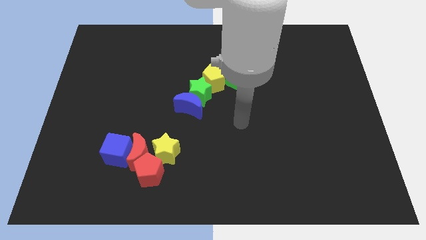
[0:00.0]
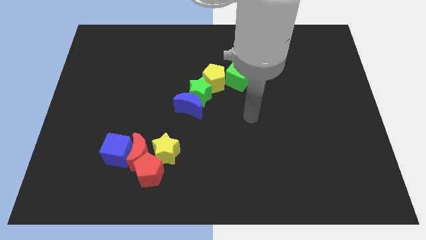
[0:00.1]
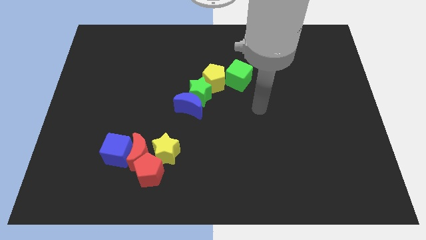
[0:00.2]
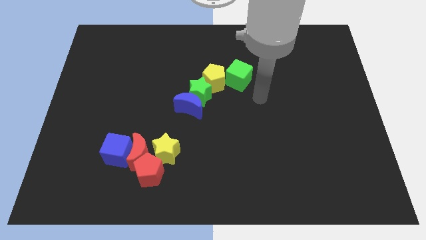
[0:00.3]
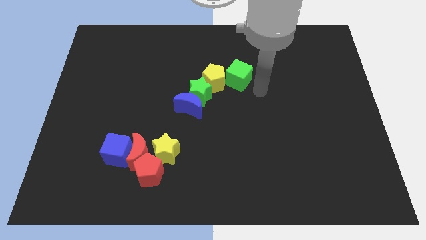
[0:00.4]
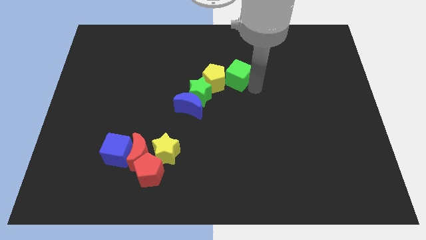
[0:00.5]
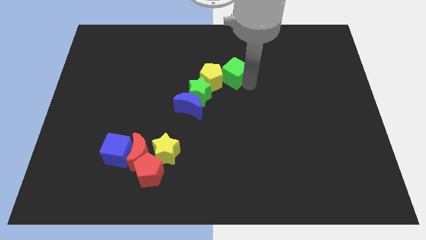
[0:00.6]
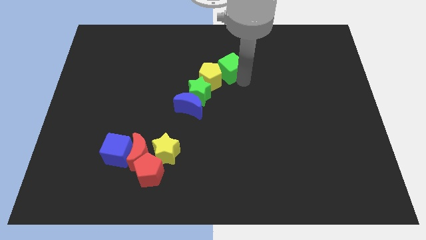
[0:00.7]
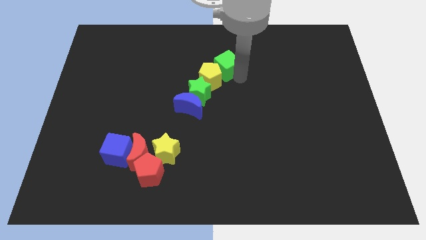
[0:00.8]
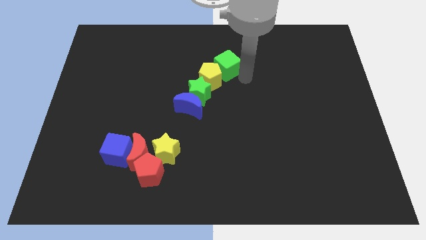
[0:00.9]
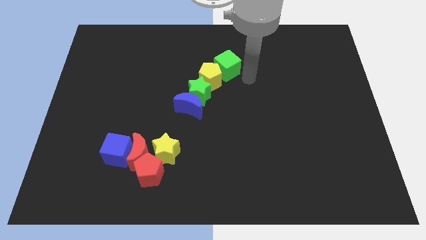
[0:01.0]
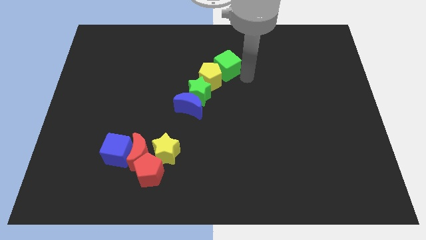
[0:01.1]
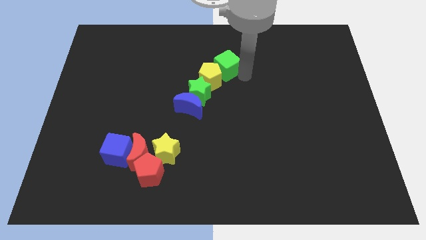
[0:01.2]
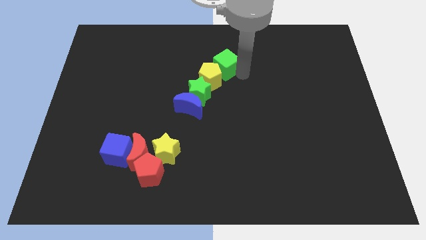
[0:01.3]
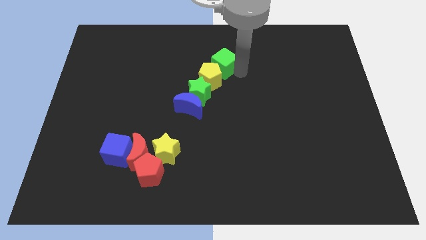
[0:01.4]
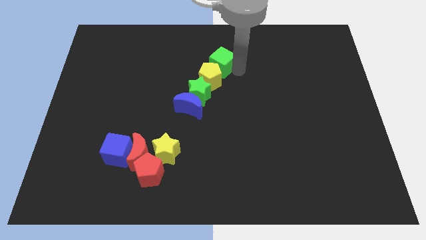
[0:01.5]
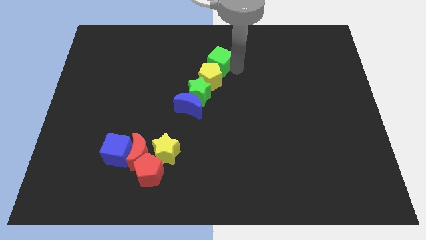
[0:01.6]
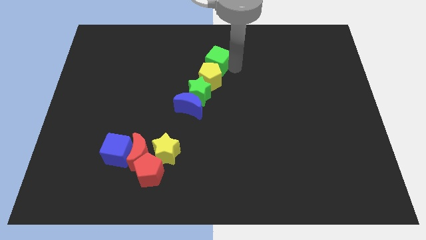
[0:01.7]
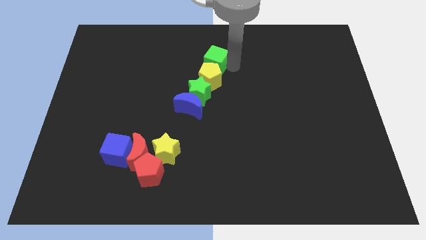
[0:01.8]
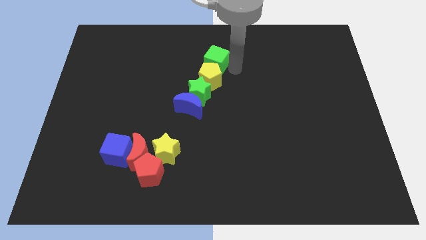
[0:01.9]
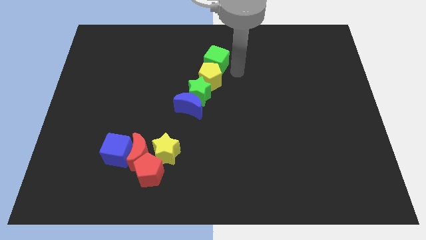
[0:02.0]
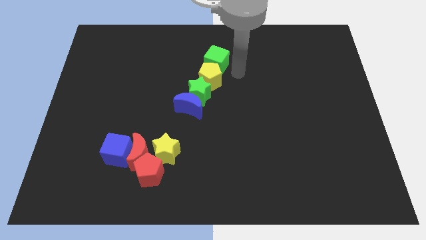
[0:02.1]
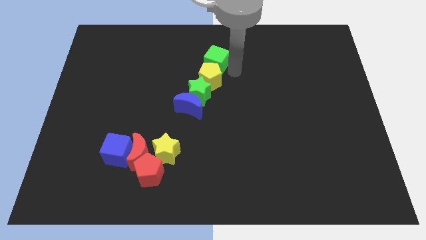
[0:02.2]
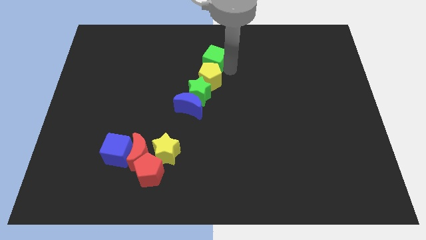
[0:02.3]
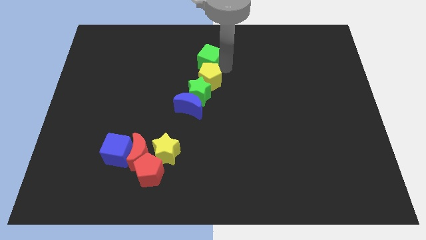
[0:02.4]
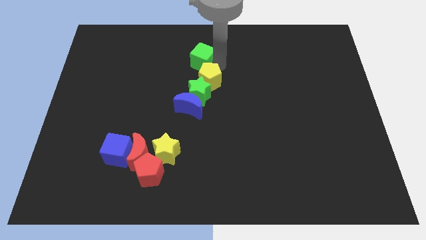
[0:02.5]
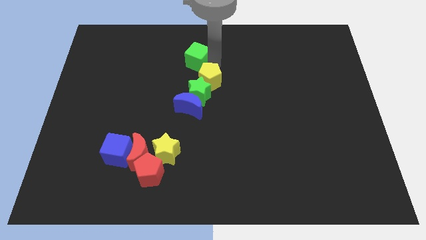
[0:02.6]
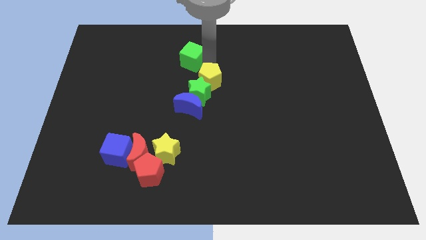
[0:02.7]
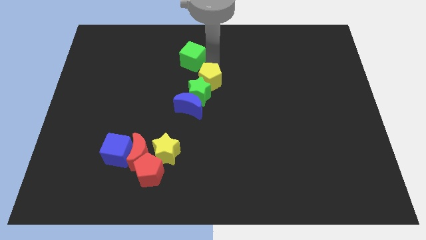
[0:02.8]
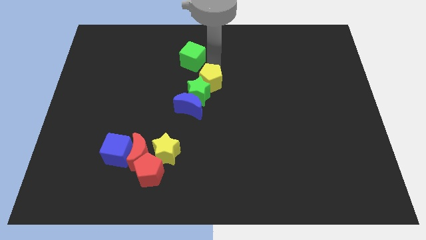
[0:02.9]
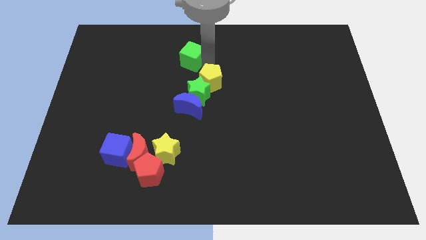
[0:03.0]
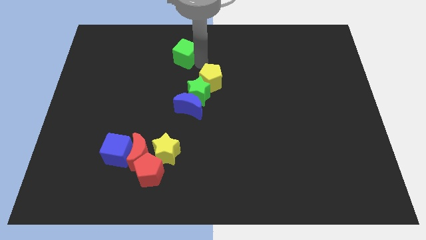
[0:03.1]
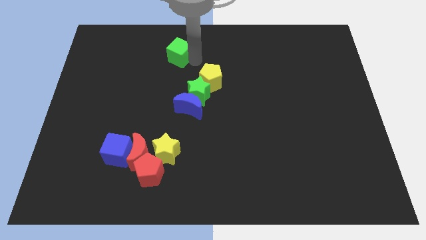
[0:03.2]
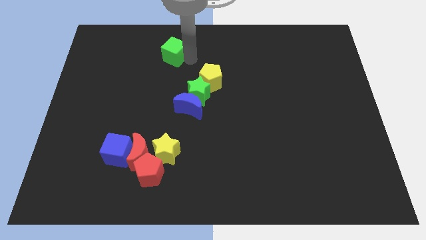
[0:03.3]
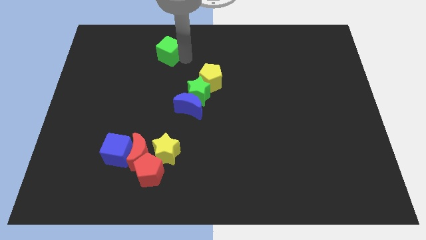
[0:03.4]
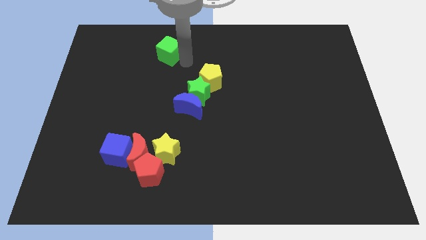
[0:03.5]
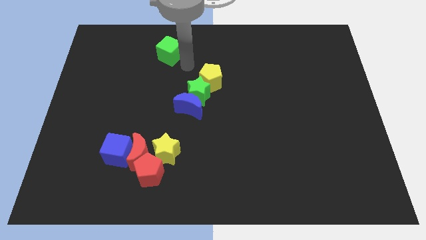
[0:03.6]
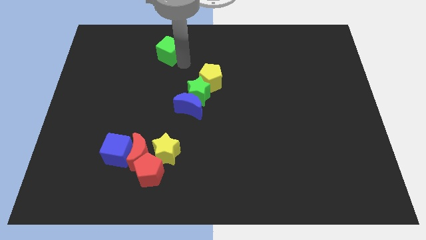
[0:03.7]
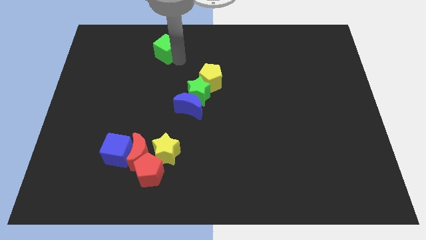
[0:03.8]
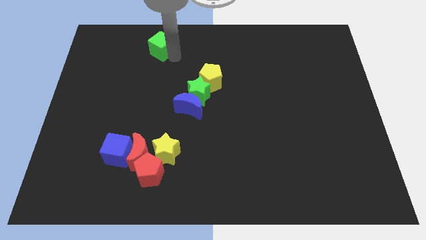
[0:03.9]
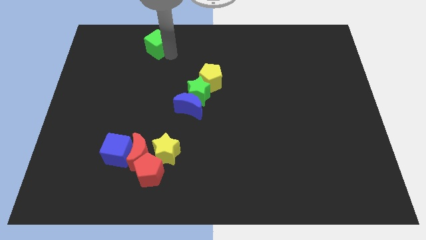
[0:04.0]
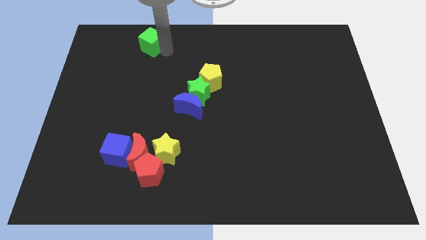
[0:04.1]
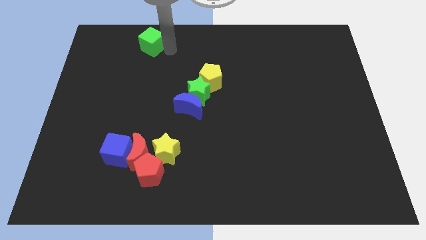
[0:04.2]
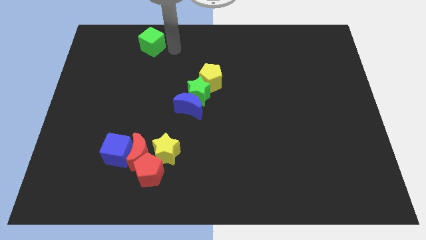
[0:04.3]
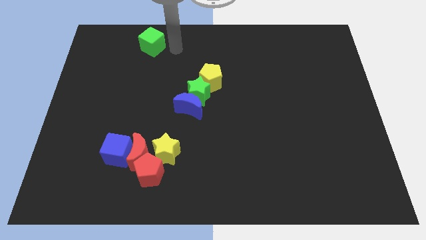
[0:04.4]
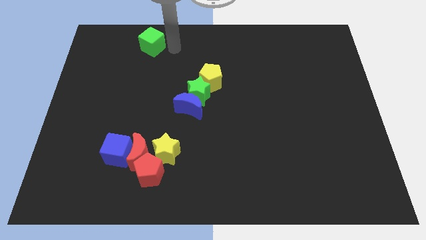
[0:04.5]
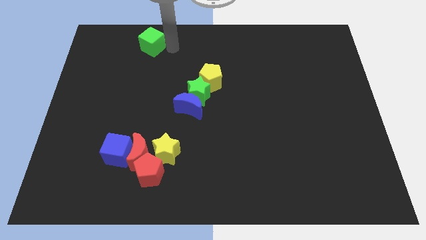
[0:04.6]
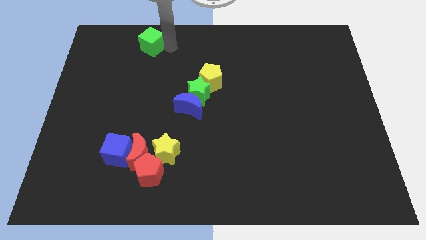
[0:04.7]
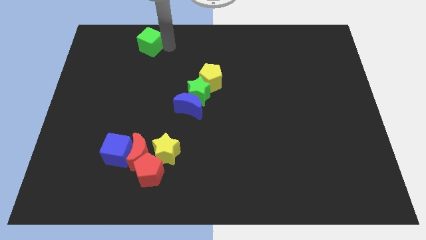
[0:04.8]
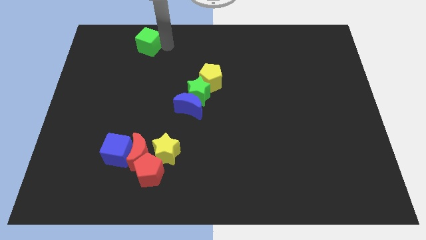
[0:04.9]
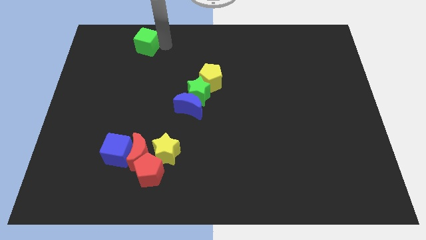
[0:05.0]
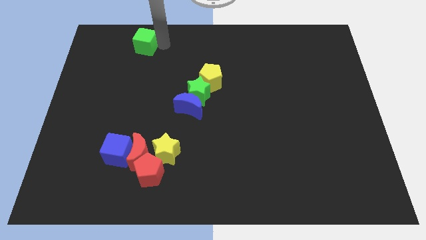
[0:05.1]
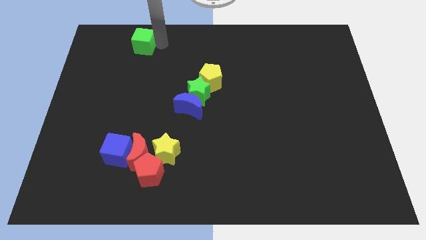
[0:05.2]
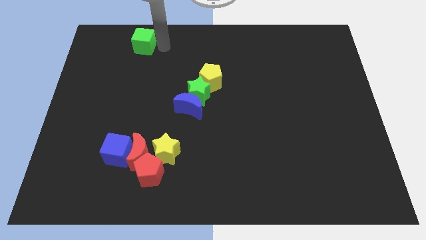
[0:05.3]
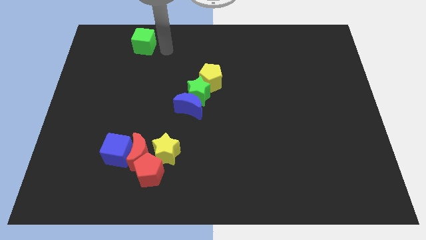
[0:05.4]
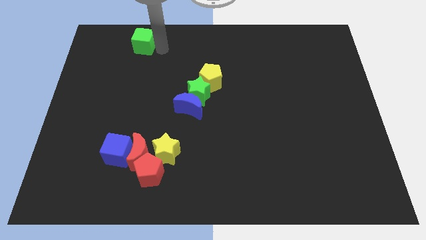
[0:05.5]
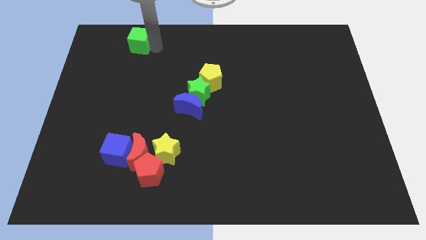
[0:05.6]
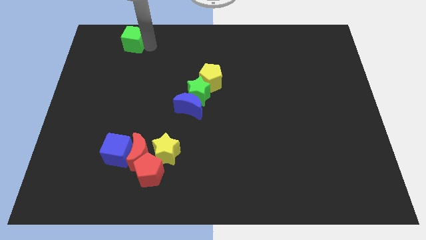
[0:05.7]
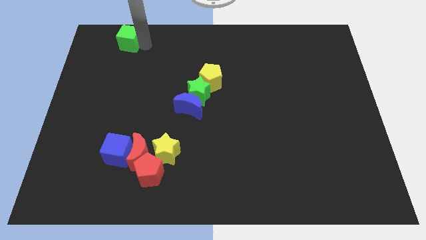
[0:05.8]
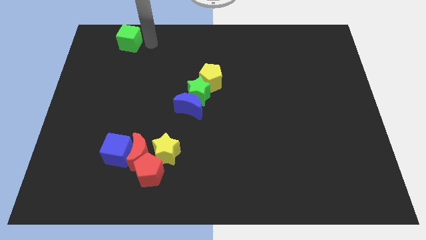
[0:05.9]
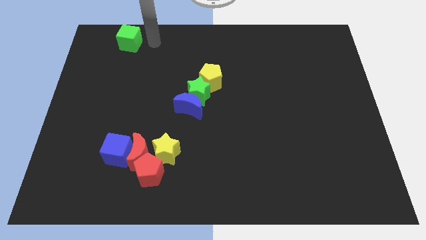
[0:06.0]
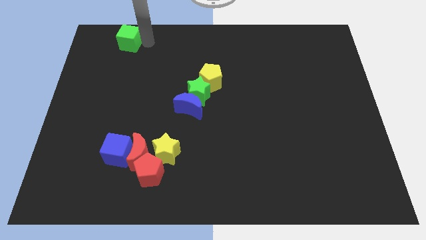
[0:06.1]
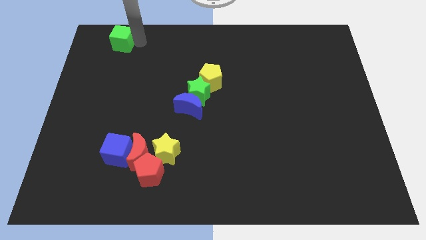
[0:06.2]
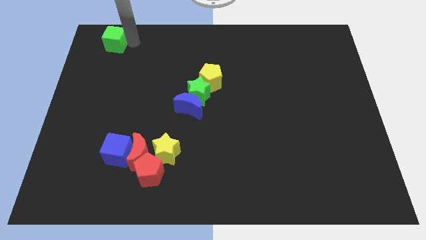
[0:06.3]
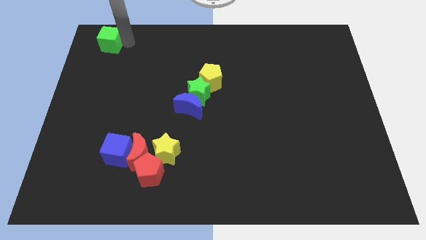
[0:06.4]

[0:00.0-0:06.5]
push the green cube to the top left

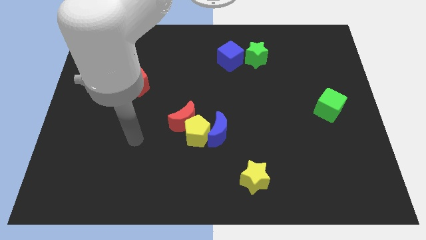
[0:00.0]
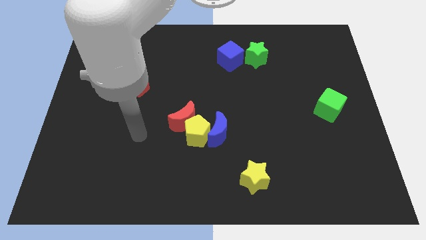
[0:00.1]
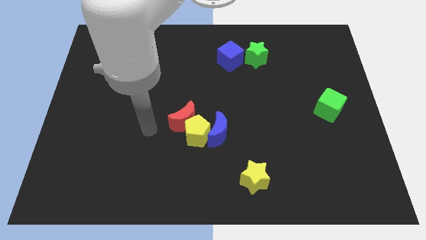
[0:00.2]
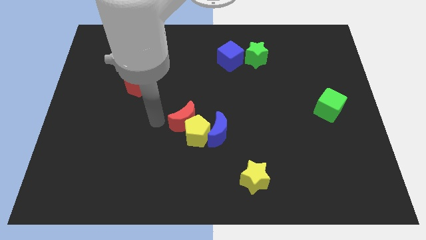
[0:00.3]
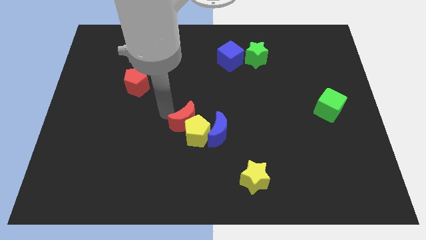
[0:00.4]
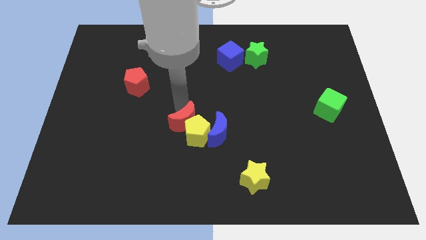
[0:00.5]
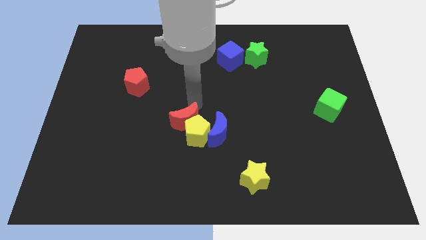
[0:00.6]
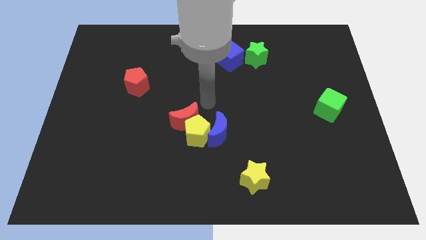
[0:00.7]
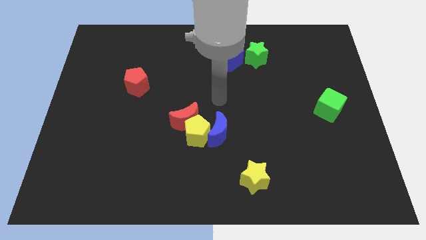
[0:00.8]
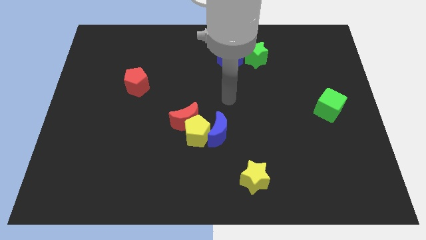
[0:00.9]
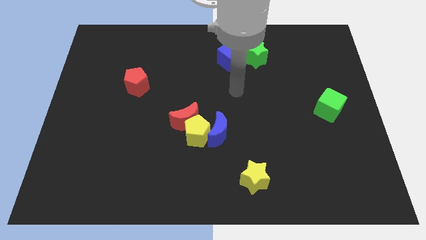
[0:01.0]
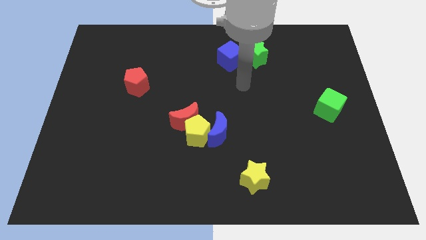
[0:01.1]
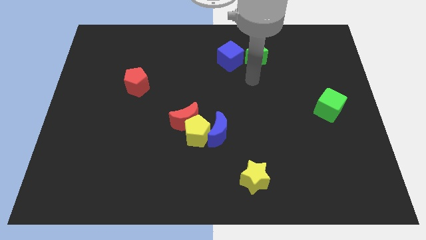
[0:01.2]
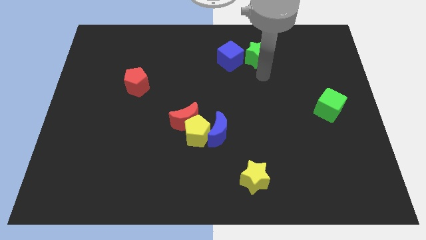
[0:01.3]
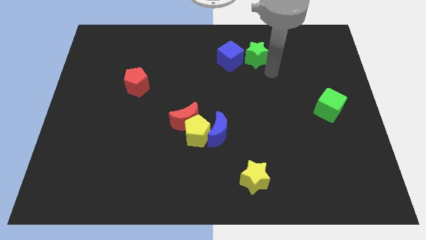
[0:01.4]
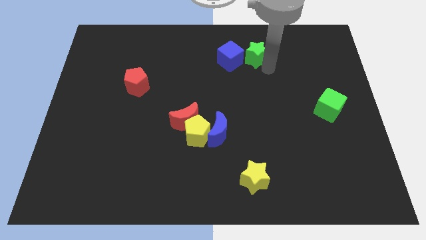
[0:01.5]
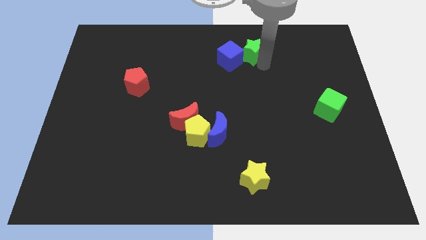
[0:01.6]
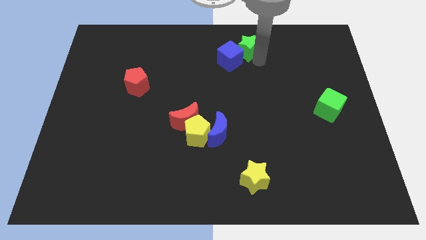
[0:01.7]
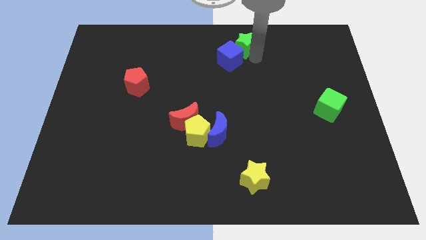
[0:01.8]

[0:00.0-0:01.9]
slide the green star to the top
